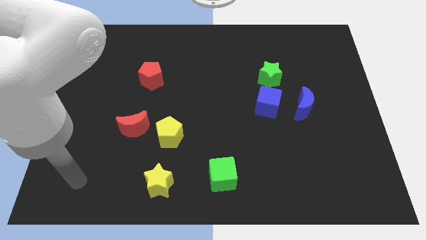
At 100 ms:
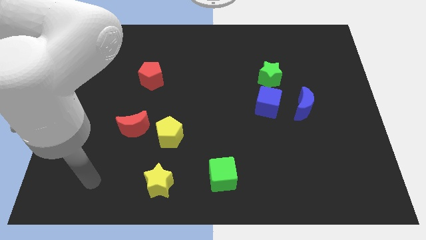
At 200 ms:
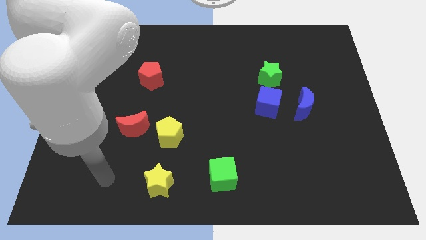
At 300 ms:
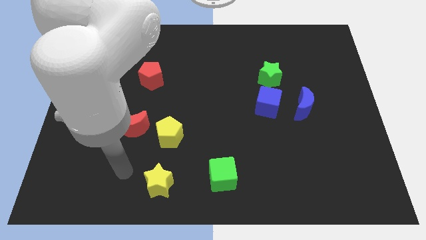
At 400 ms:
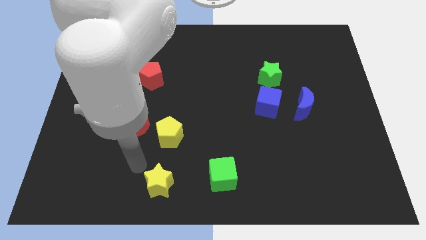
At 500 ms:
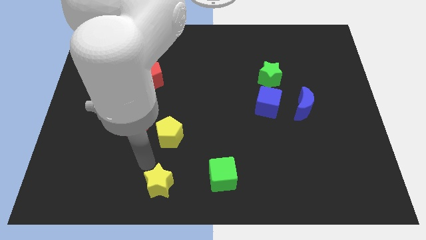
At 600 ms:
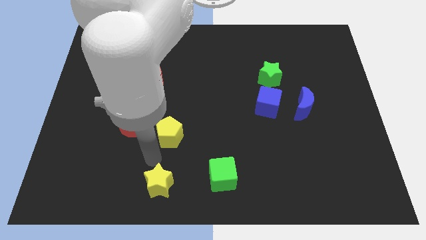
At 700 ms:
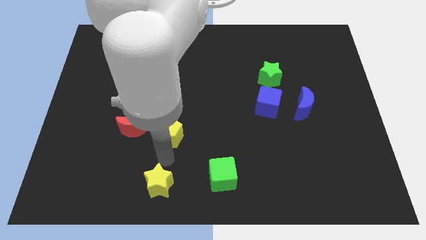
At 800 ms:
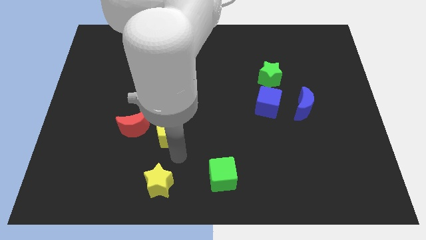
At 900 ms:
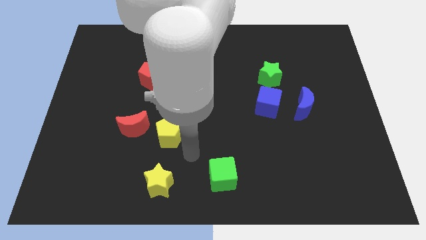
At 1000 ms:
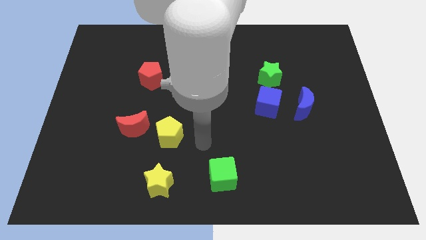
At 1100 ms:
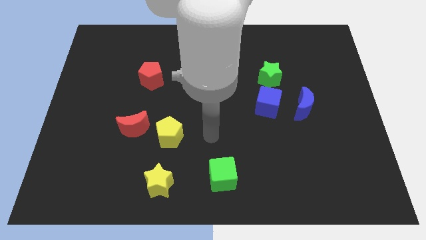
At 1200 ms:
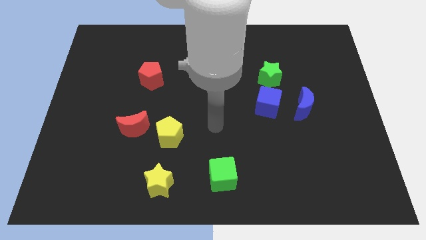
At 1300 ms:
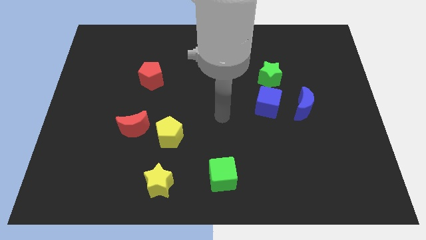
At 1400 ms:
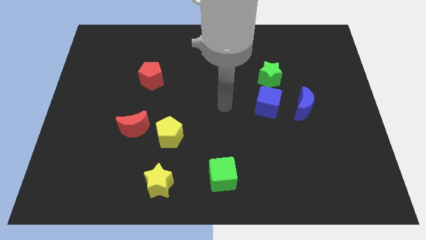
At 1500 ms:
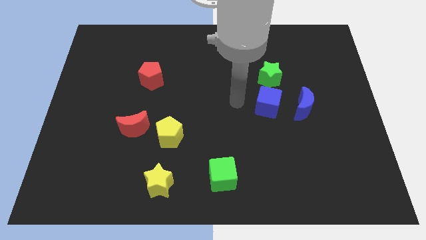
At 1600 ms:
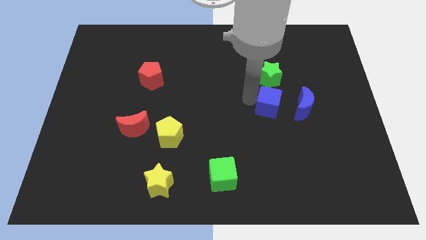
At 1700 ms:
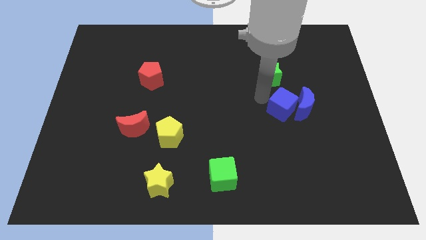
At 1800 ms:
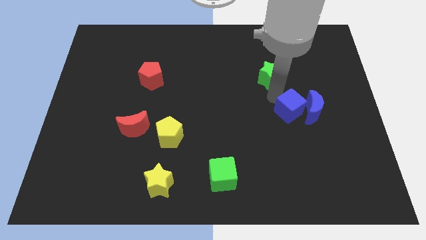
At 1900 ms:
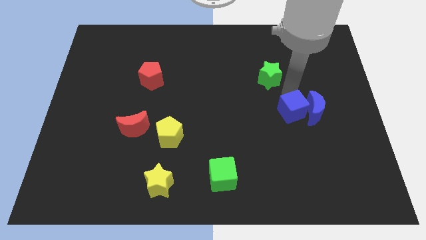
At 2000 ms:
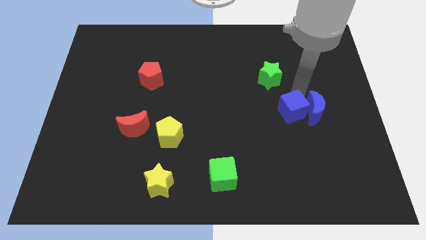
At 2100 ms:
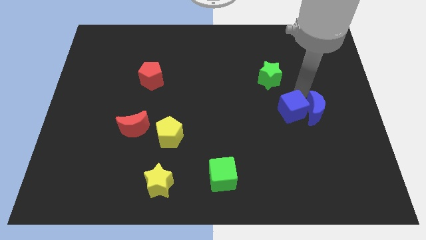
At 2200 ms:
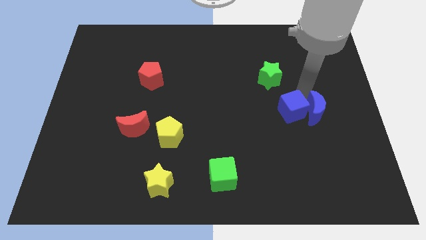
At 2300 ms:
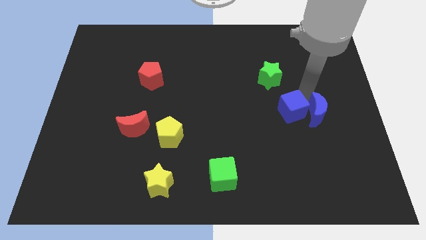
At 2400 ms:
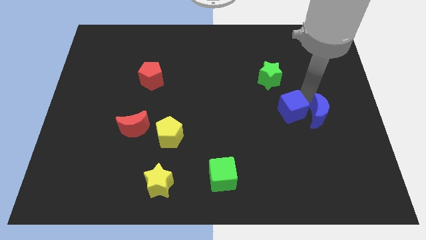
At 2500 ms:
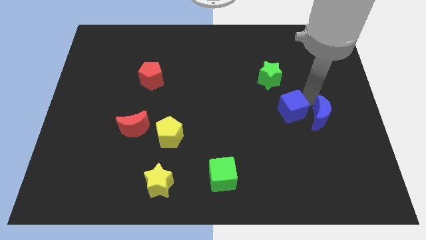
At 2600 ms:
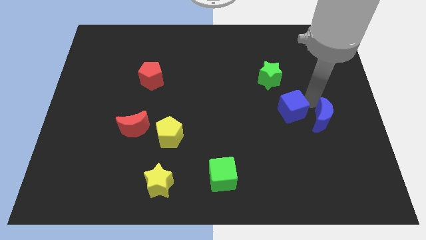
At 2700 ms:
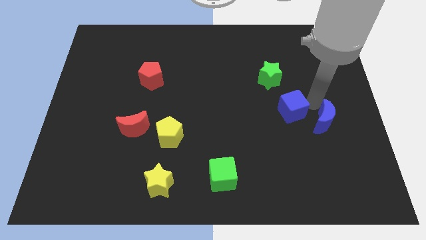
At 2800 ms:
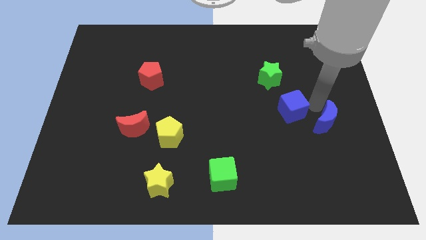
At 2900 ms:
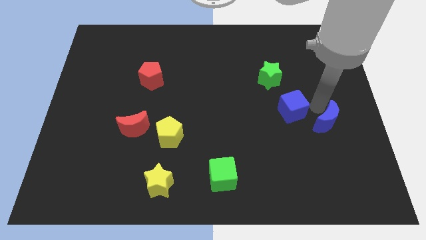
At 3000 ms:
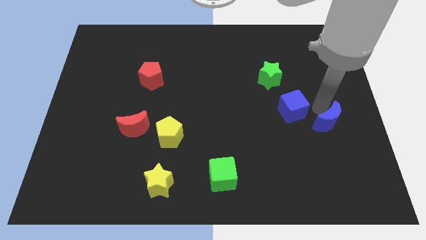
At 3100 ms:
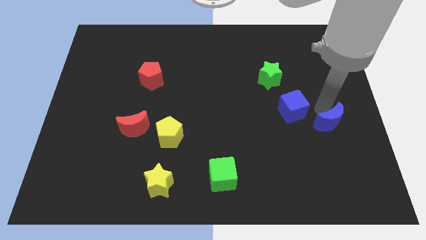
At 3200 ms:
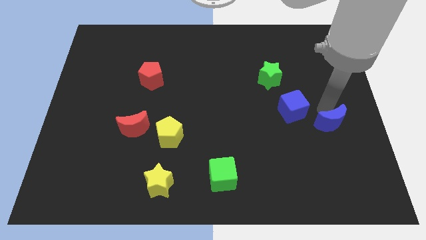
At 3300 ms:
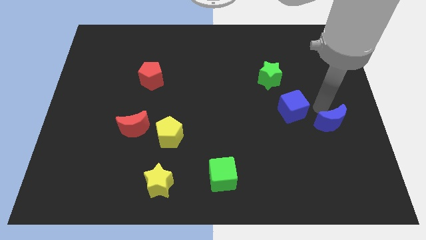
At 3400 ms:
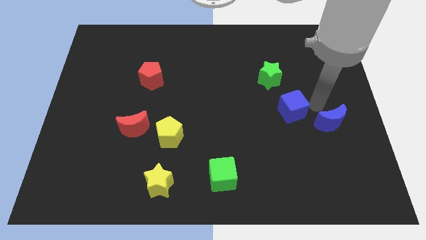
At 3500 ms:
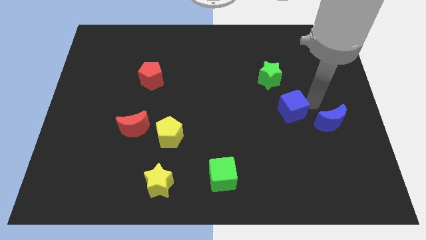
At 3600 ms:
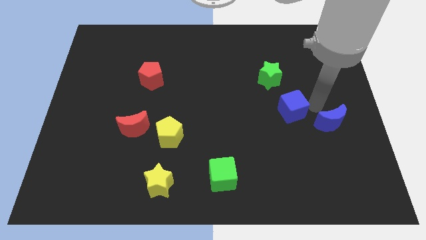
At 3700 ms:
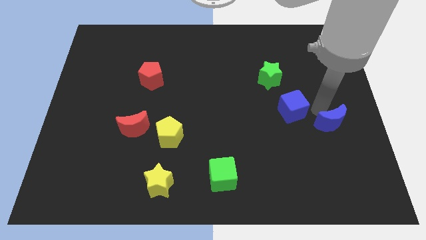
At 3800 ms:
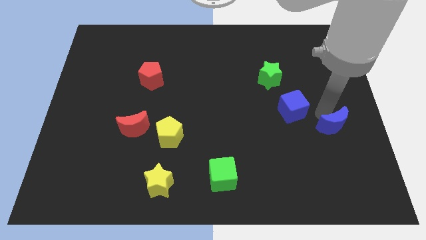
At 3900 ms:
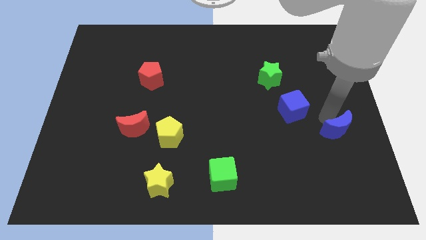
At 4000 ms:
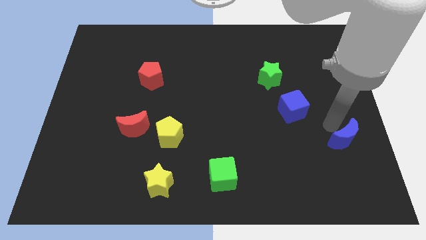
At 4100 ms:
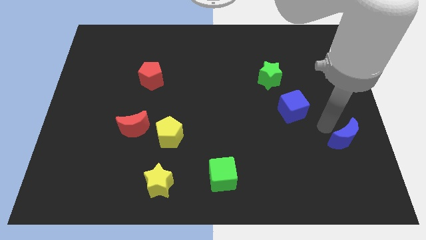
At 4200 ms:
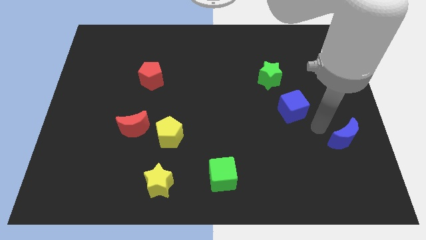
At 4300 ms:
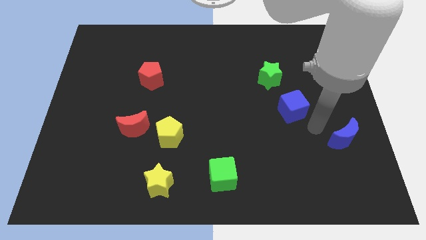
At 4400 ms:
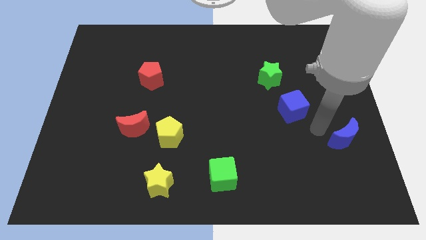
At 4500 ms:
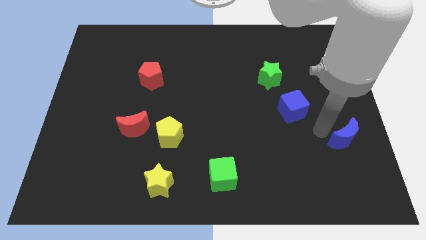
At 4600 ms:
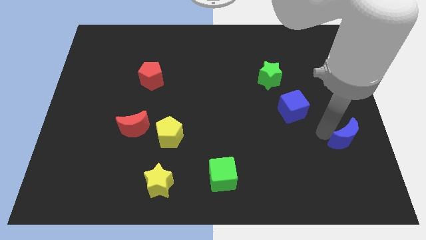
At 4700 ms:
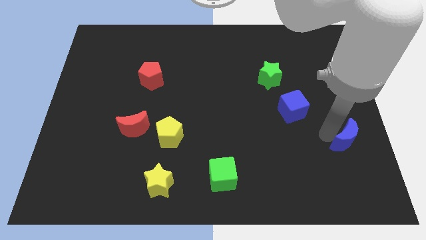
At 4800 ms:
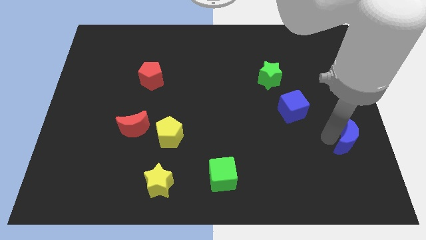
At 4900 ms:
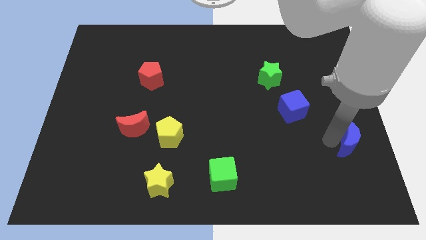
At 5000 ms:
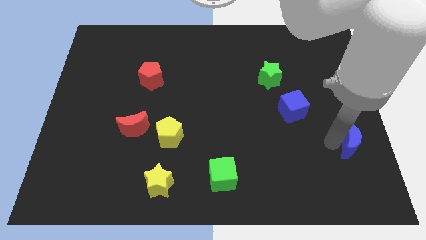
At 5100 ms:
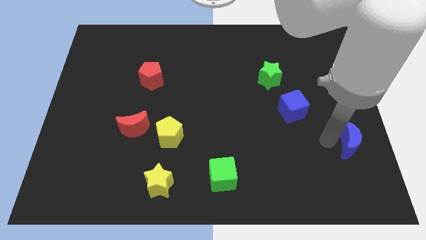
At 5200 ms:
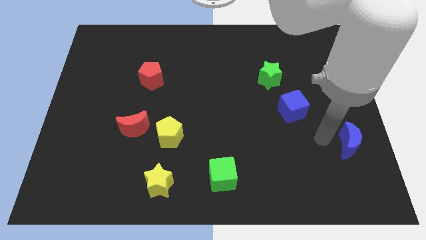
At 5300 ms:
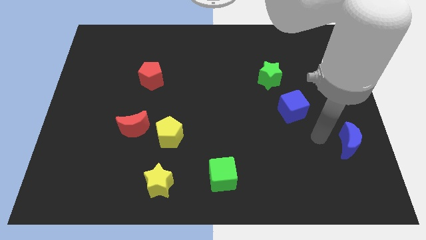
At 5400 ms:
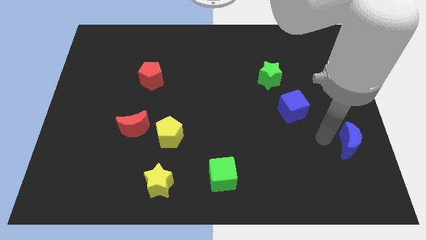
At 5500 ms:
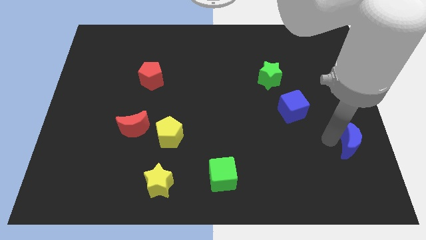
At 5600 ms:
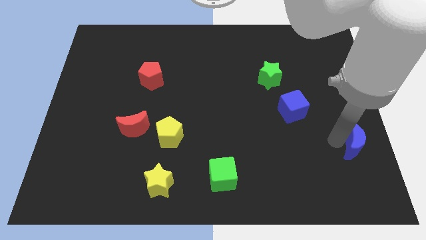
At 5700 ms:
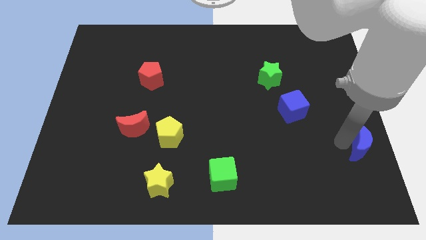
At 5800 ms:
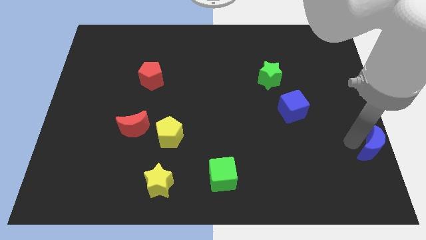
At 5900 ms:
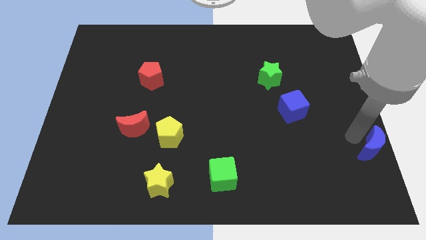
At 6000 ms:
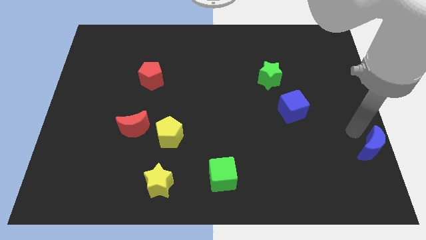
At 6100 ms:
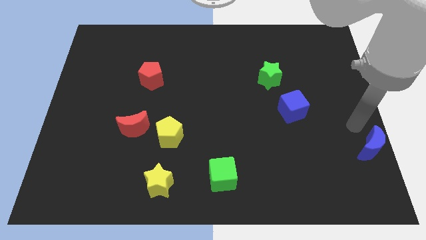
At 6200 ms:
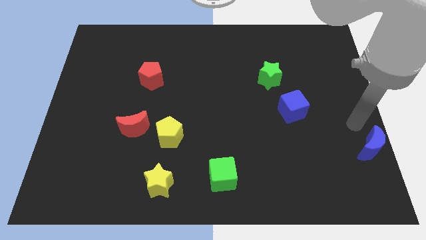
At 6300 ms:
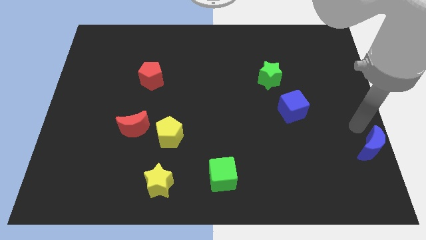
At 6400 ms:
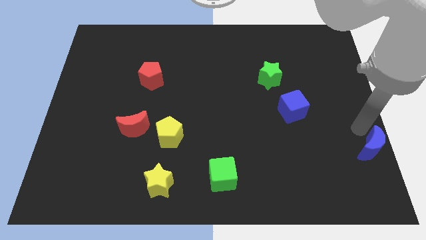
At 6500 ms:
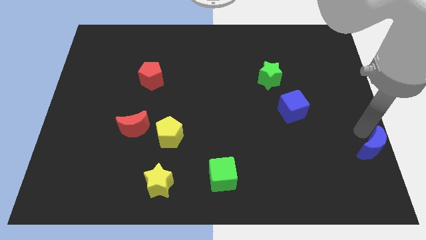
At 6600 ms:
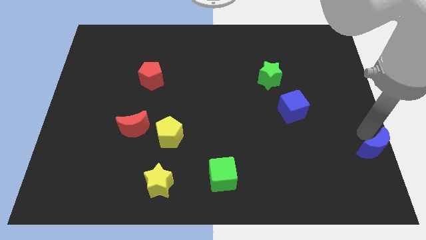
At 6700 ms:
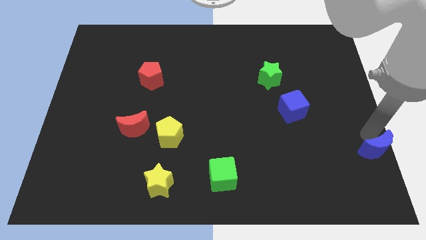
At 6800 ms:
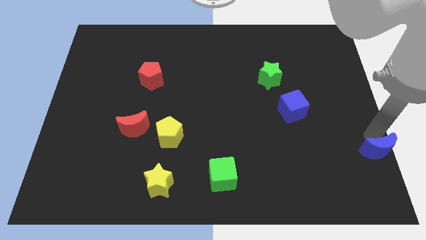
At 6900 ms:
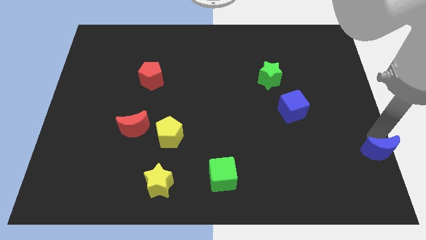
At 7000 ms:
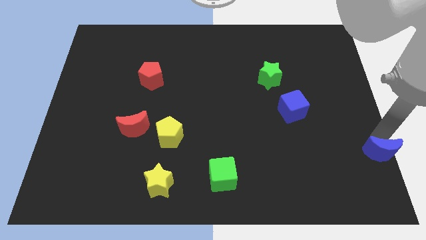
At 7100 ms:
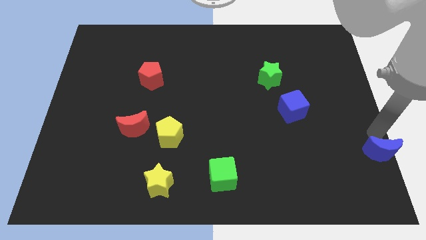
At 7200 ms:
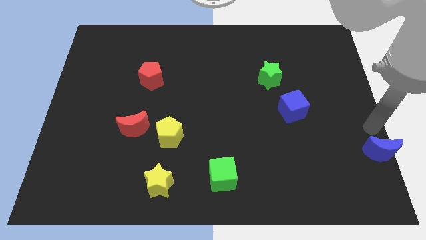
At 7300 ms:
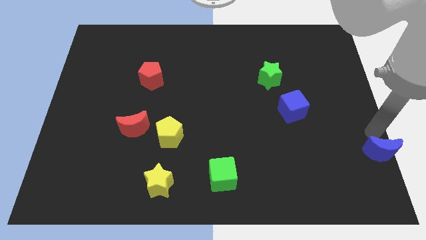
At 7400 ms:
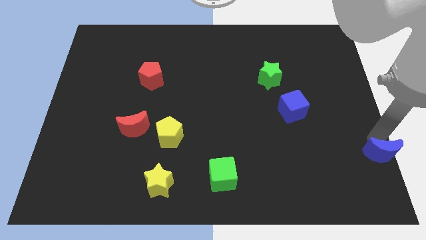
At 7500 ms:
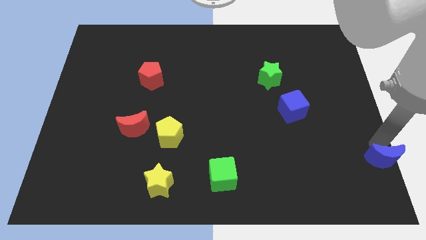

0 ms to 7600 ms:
put the blue moon to the lower right corner

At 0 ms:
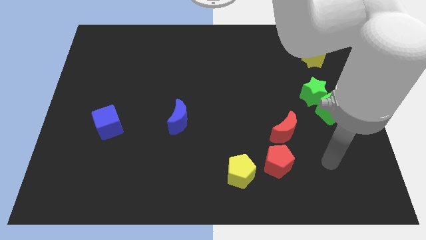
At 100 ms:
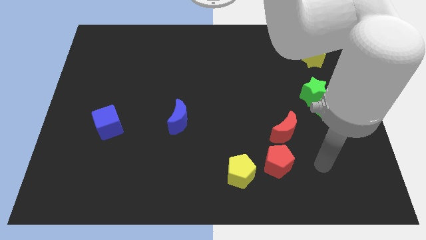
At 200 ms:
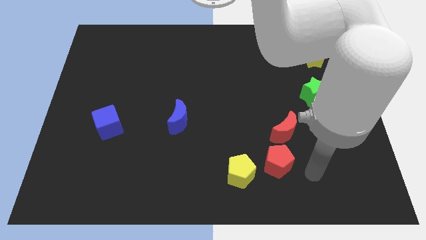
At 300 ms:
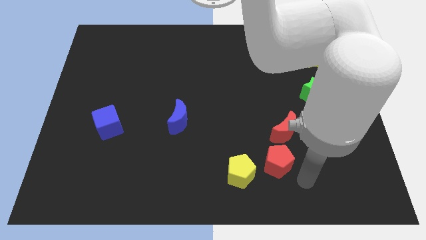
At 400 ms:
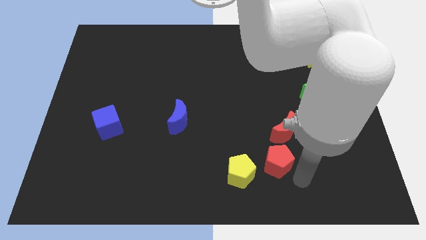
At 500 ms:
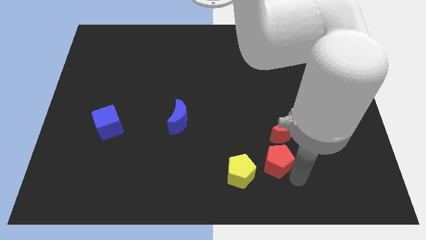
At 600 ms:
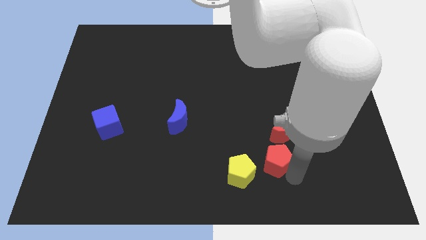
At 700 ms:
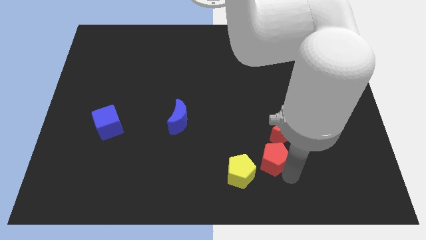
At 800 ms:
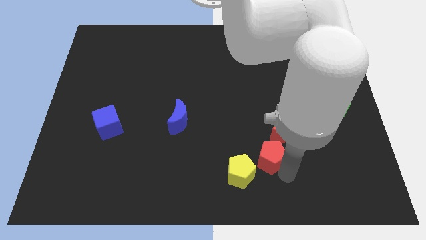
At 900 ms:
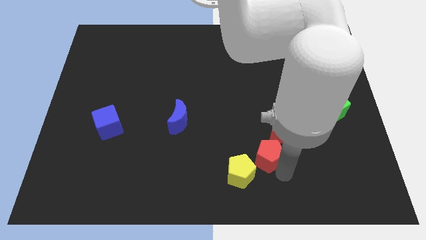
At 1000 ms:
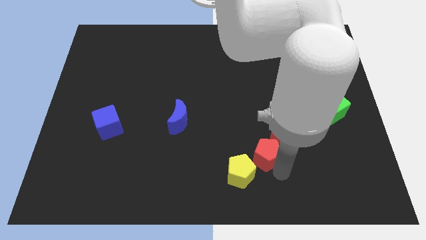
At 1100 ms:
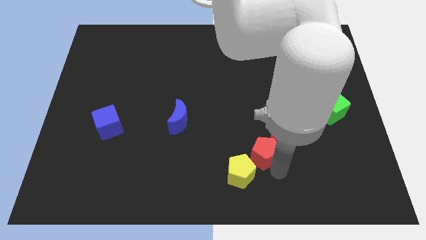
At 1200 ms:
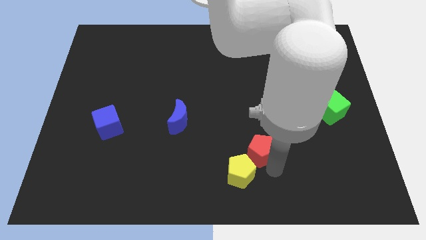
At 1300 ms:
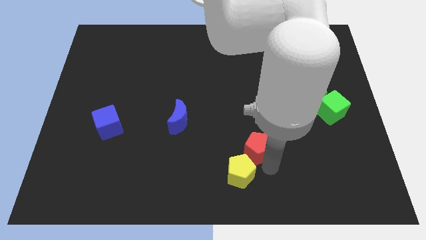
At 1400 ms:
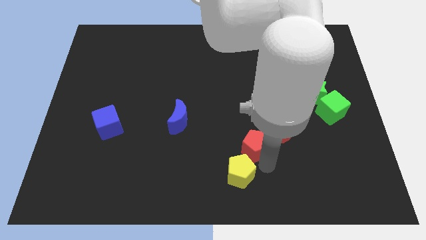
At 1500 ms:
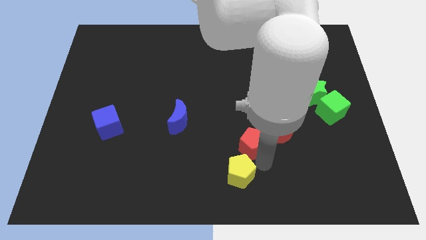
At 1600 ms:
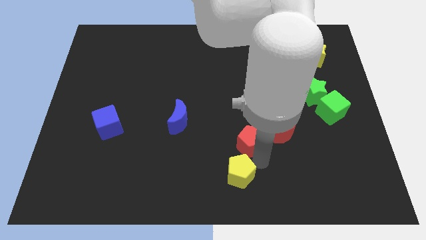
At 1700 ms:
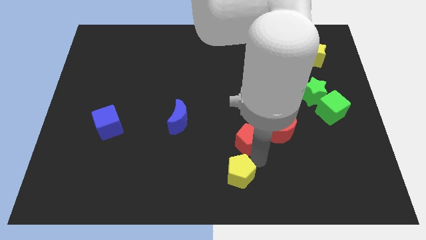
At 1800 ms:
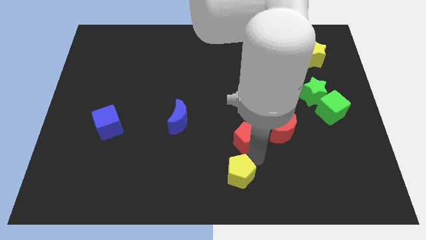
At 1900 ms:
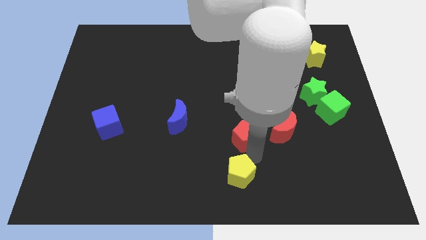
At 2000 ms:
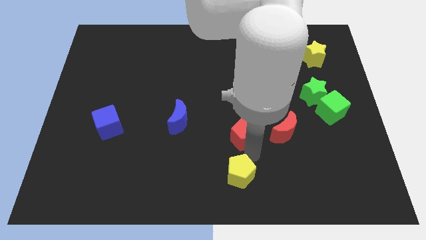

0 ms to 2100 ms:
put the red pentagon to the center
